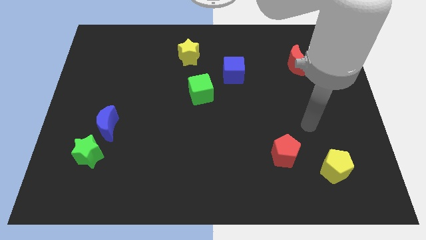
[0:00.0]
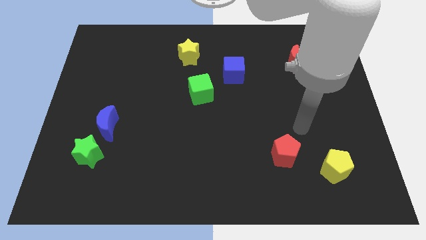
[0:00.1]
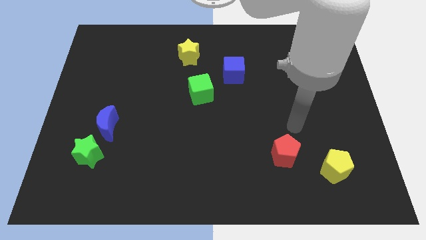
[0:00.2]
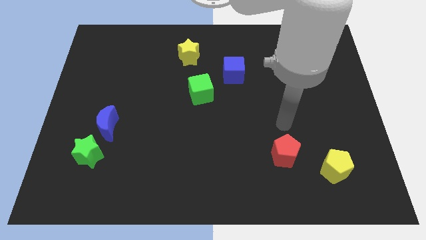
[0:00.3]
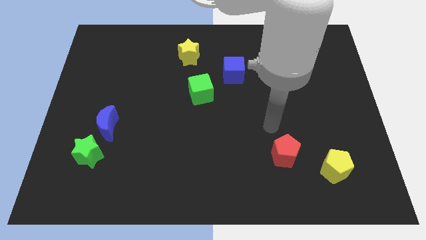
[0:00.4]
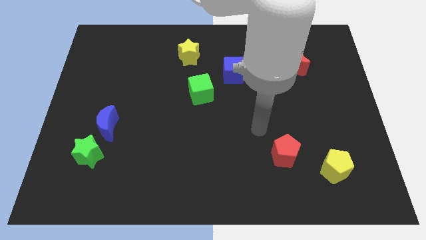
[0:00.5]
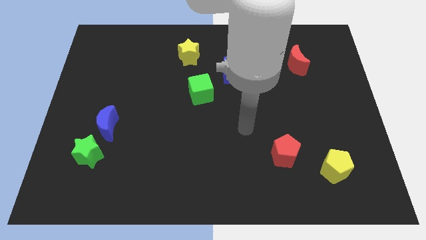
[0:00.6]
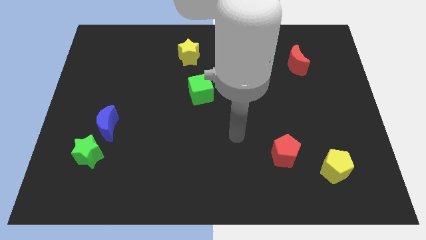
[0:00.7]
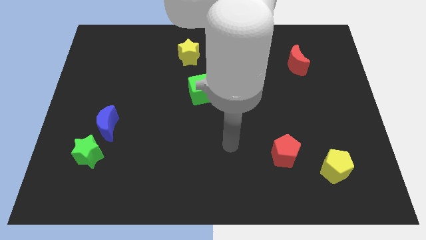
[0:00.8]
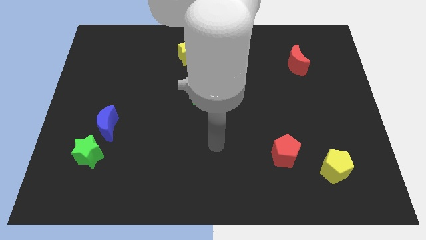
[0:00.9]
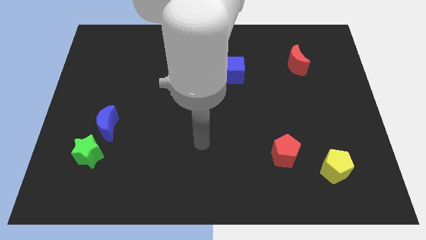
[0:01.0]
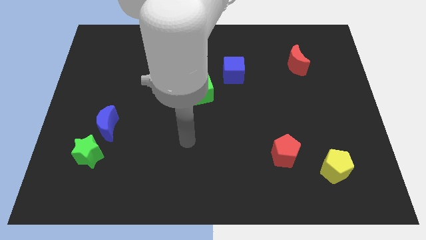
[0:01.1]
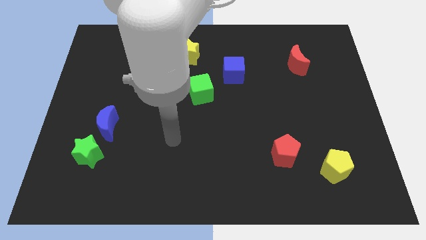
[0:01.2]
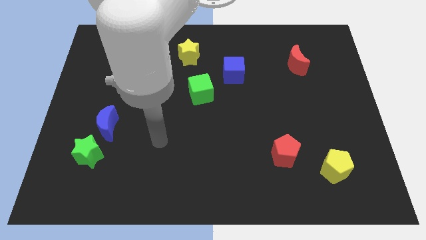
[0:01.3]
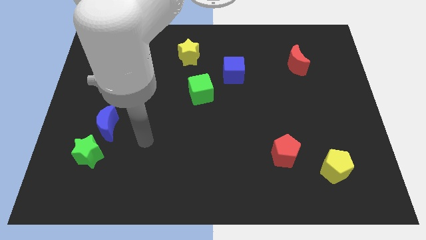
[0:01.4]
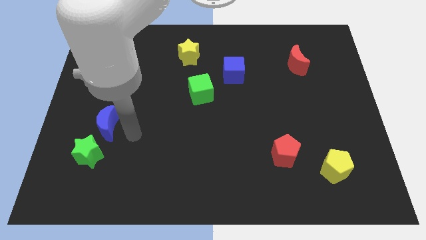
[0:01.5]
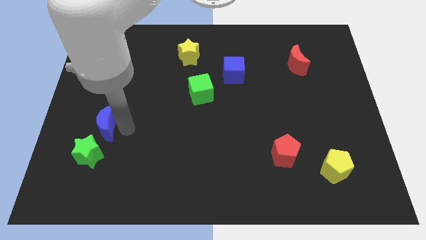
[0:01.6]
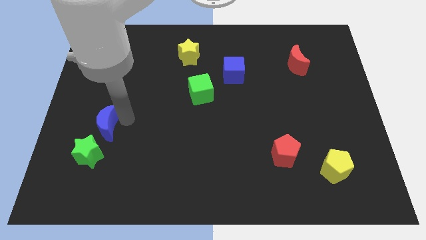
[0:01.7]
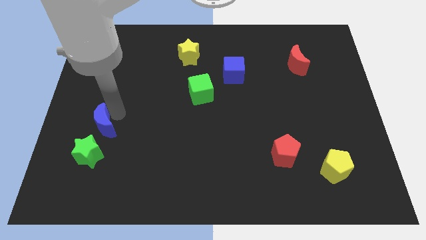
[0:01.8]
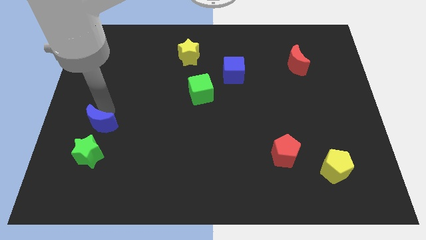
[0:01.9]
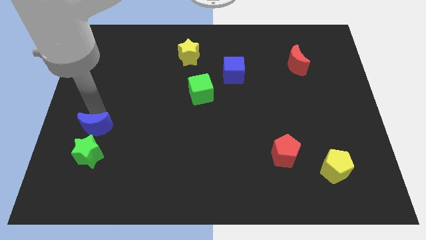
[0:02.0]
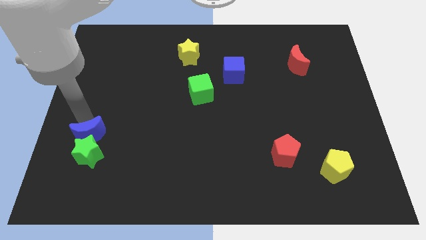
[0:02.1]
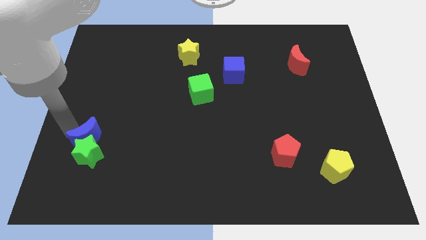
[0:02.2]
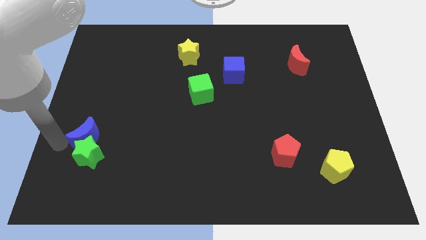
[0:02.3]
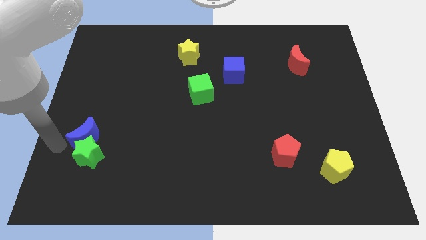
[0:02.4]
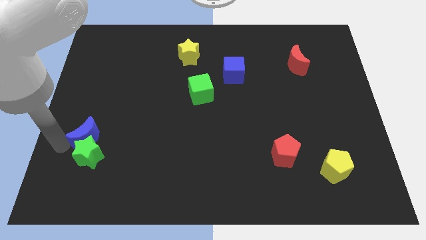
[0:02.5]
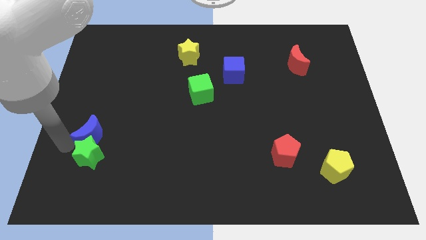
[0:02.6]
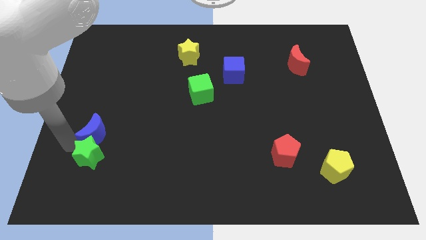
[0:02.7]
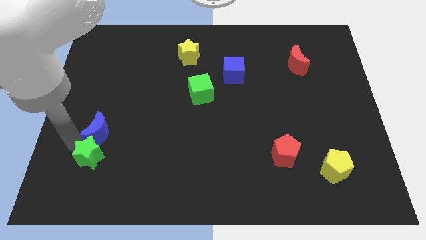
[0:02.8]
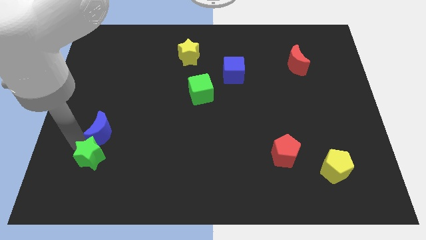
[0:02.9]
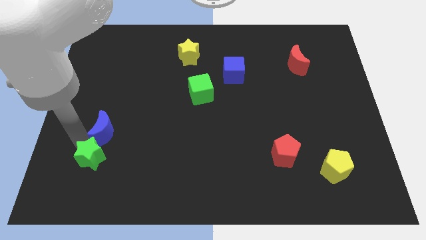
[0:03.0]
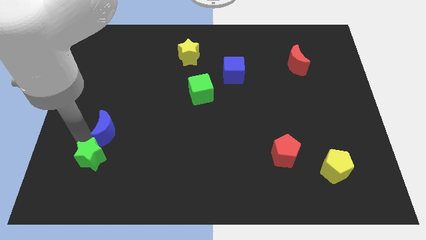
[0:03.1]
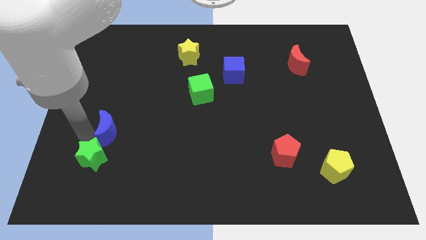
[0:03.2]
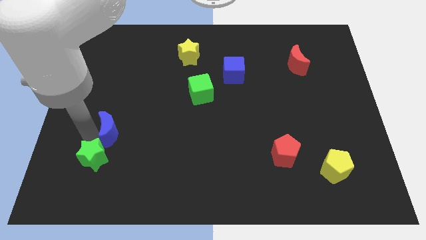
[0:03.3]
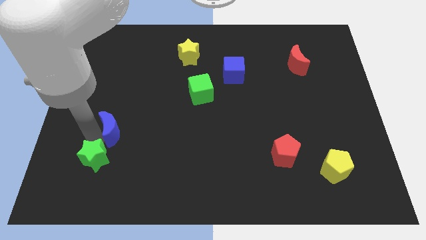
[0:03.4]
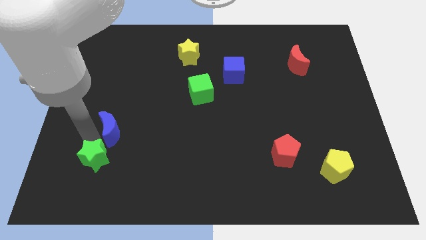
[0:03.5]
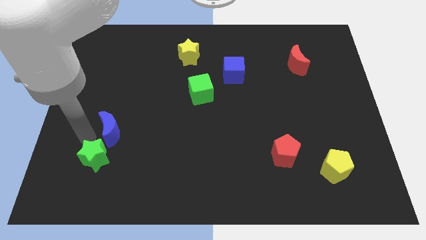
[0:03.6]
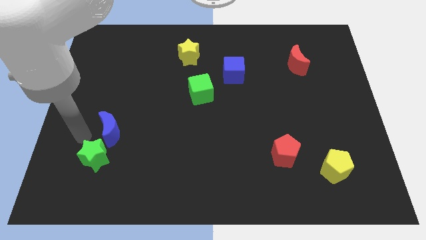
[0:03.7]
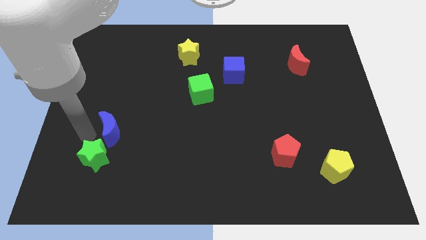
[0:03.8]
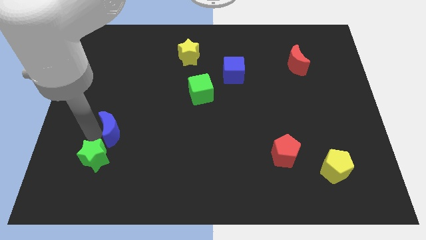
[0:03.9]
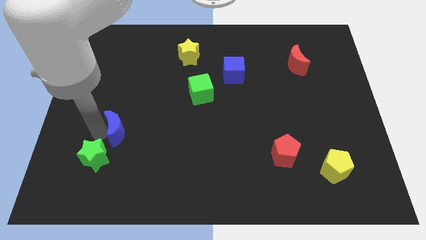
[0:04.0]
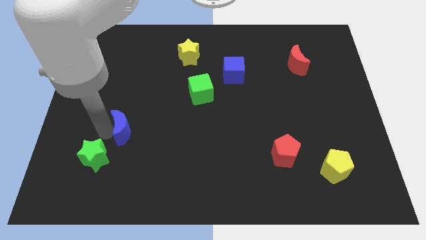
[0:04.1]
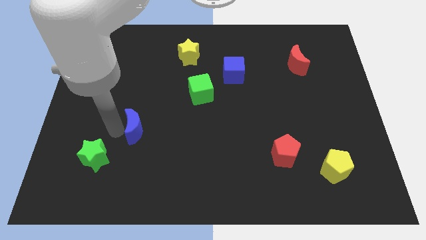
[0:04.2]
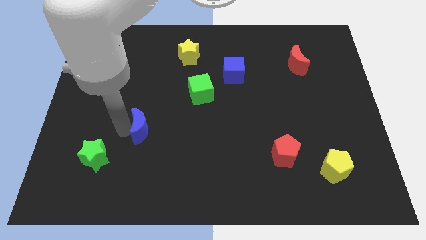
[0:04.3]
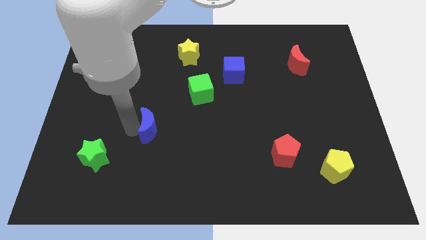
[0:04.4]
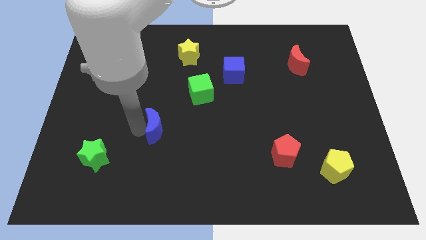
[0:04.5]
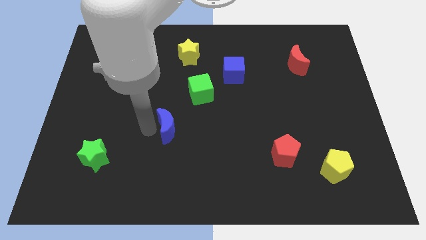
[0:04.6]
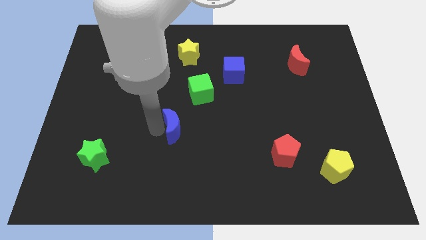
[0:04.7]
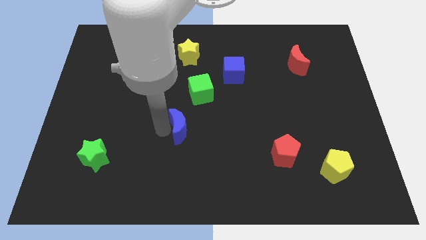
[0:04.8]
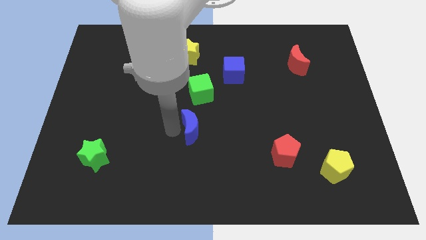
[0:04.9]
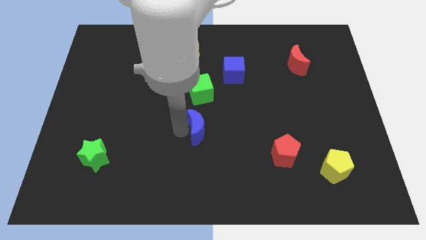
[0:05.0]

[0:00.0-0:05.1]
push the blue moon to the right

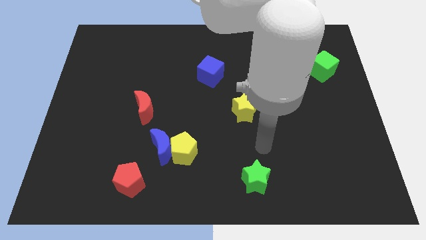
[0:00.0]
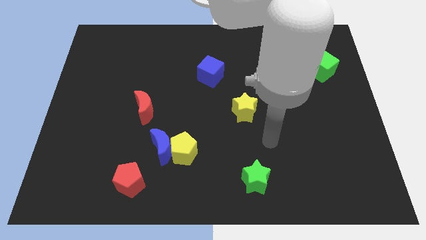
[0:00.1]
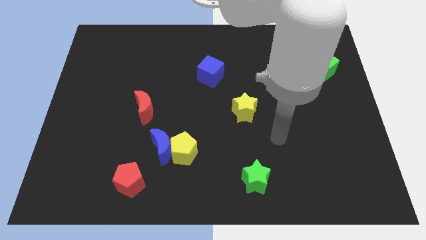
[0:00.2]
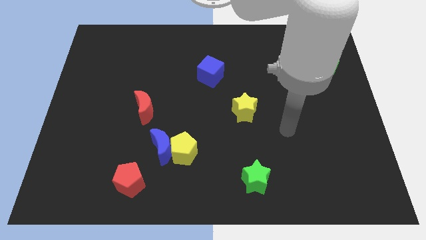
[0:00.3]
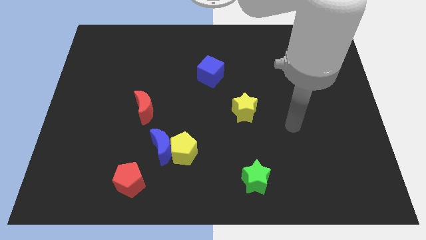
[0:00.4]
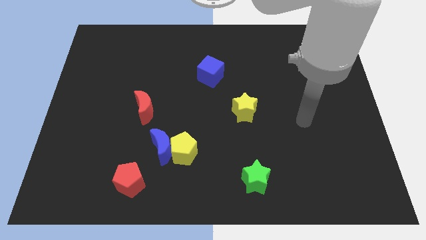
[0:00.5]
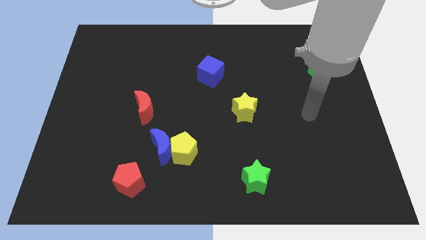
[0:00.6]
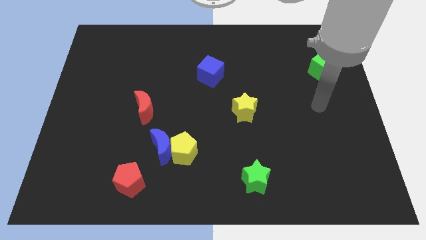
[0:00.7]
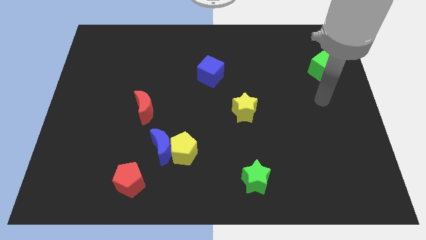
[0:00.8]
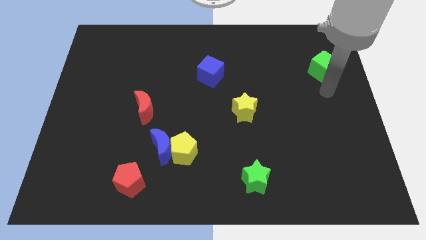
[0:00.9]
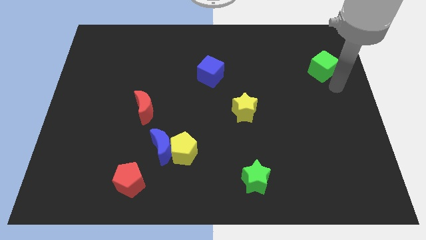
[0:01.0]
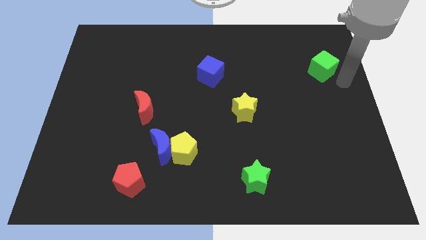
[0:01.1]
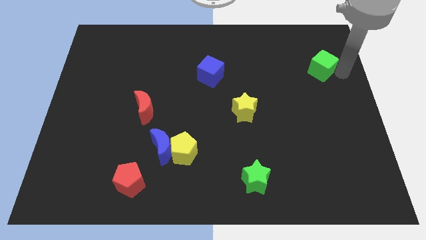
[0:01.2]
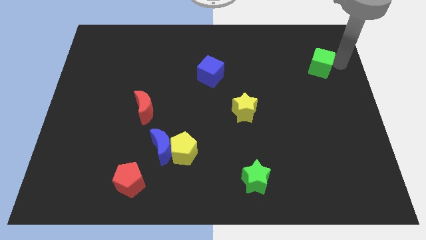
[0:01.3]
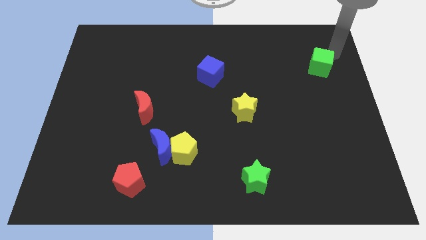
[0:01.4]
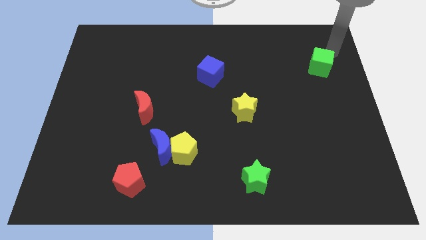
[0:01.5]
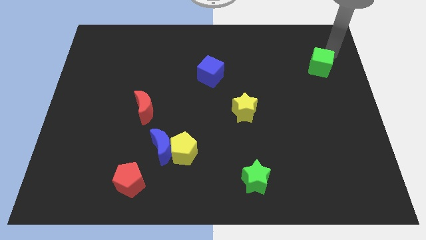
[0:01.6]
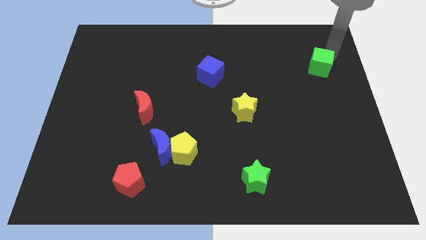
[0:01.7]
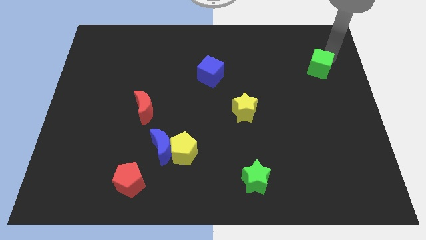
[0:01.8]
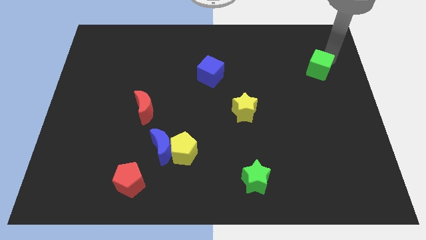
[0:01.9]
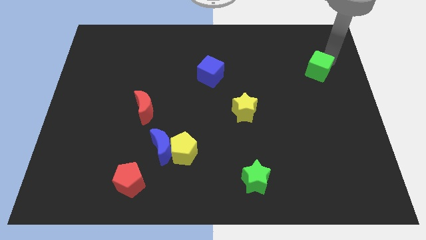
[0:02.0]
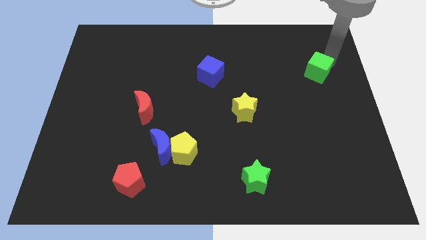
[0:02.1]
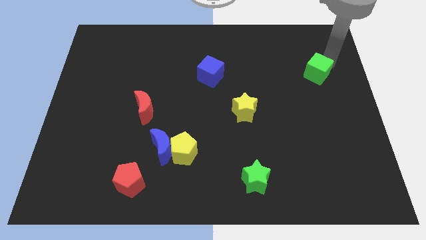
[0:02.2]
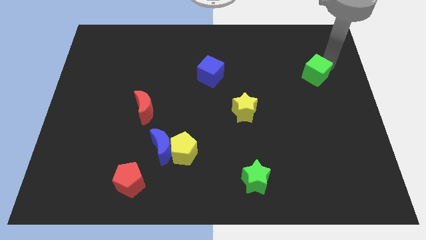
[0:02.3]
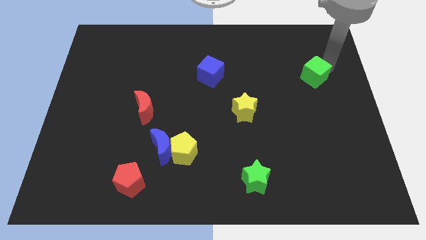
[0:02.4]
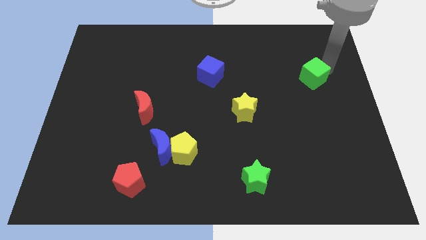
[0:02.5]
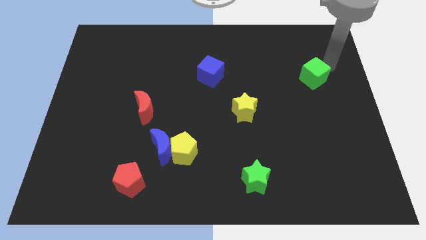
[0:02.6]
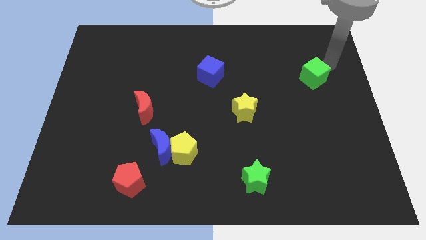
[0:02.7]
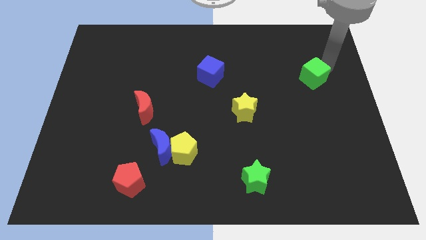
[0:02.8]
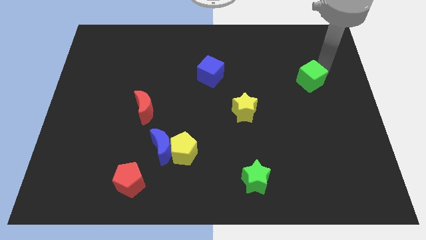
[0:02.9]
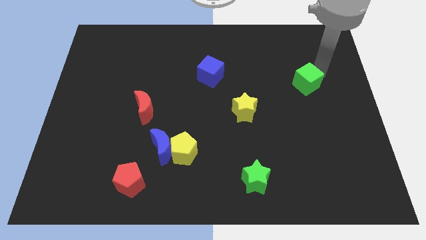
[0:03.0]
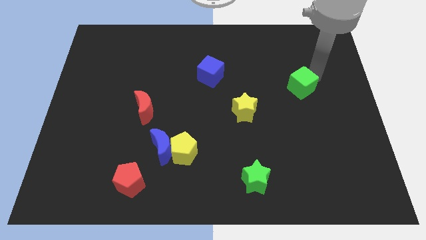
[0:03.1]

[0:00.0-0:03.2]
slightly push the green cube diagonally downwards and to the left
